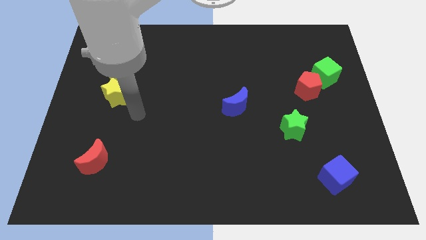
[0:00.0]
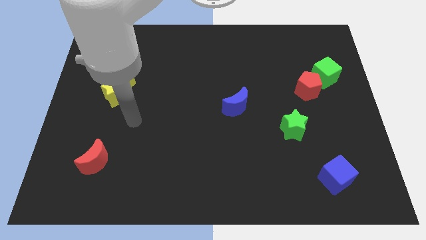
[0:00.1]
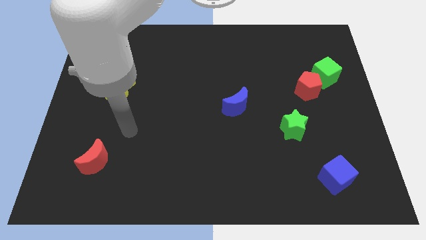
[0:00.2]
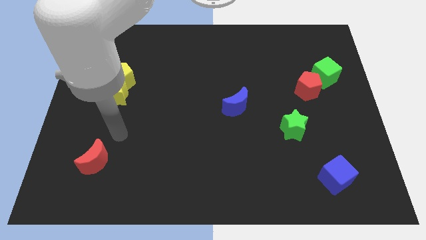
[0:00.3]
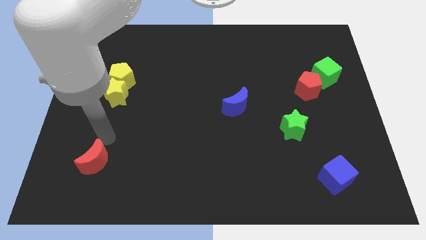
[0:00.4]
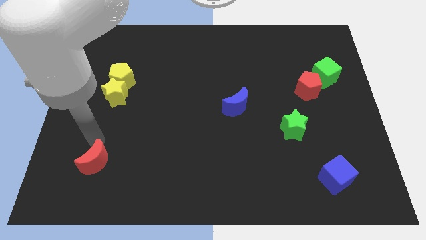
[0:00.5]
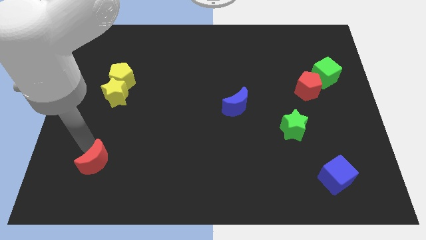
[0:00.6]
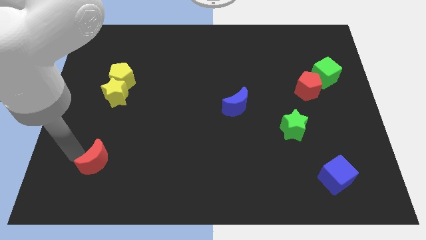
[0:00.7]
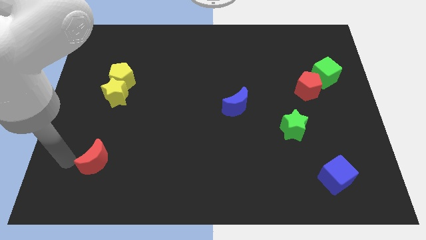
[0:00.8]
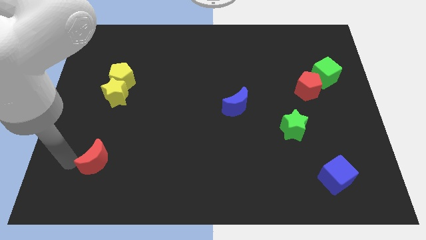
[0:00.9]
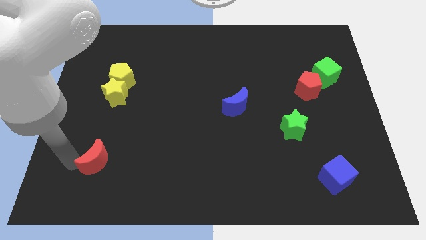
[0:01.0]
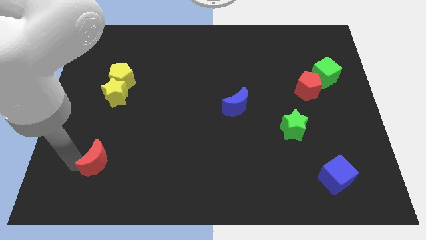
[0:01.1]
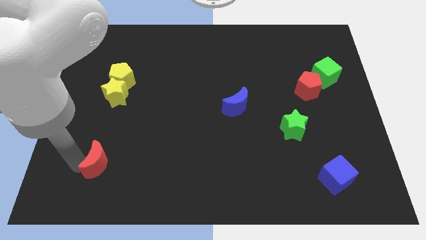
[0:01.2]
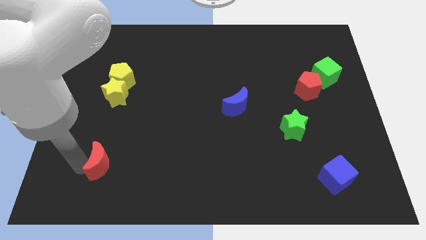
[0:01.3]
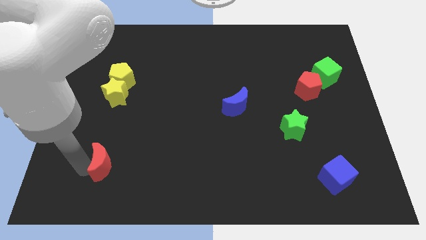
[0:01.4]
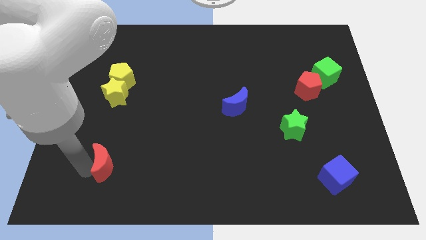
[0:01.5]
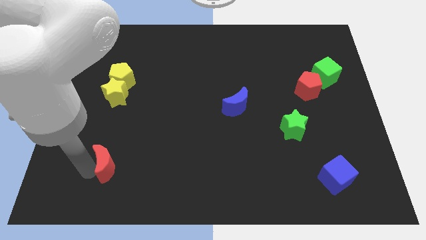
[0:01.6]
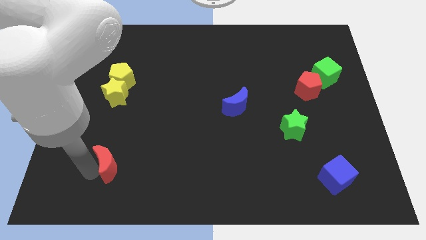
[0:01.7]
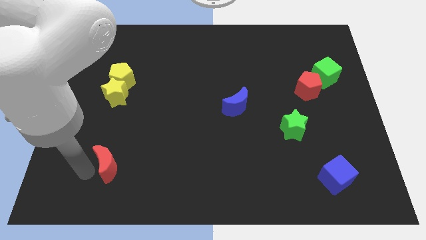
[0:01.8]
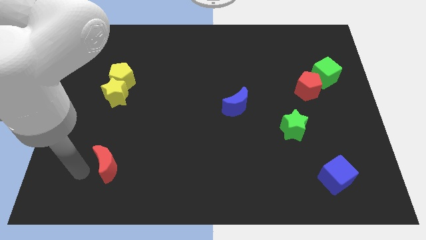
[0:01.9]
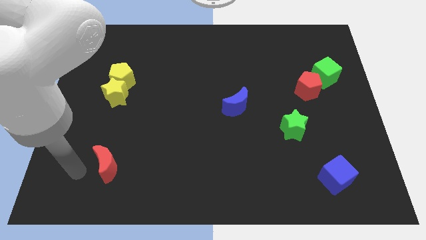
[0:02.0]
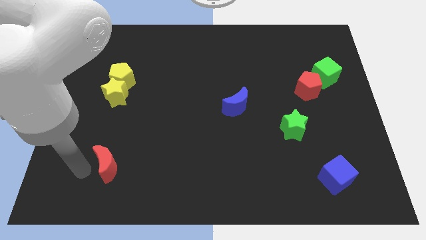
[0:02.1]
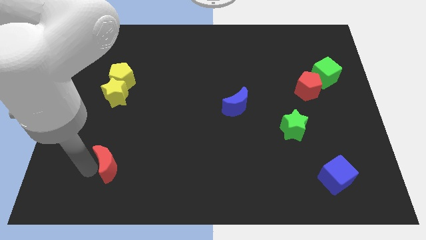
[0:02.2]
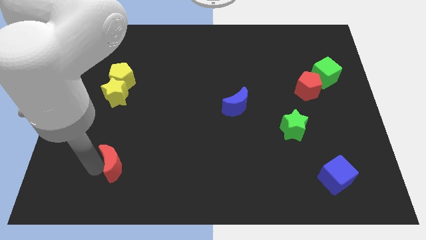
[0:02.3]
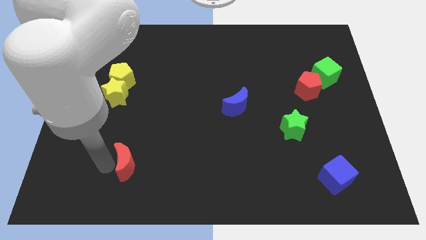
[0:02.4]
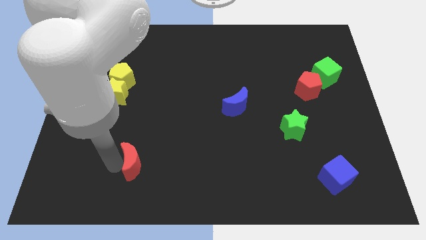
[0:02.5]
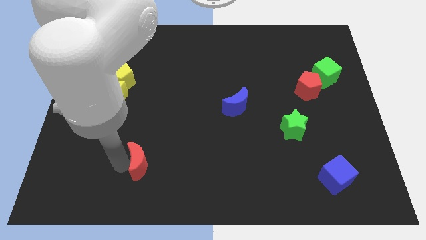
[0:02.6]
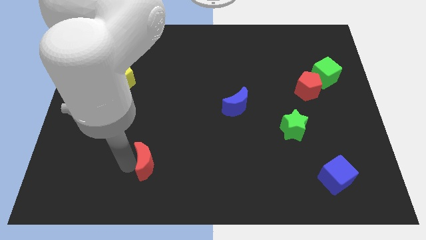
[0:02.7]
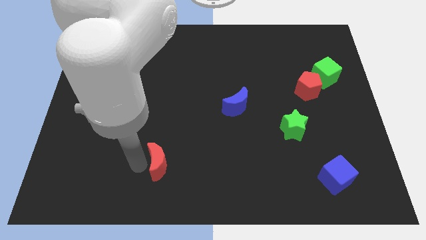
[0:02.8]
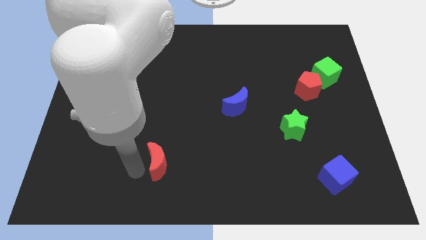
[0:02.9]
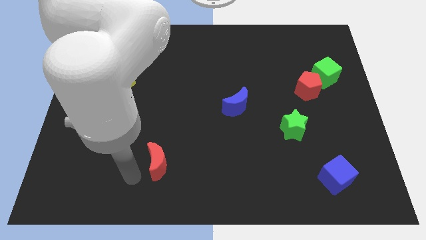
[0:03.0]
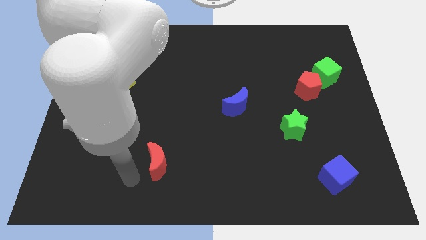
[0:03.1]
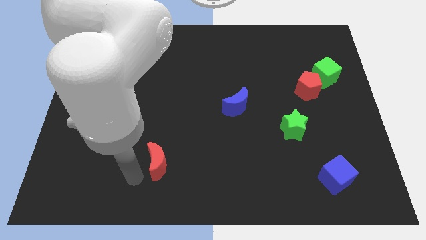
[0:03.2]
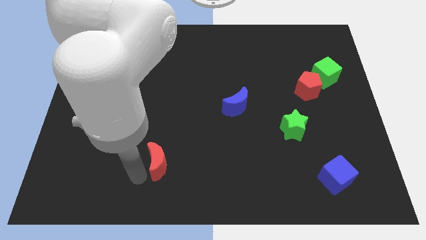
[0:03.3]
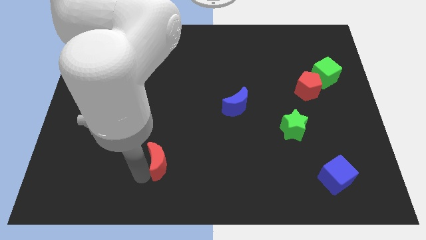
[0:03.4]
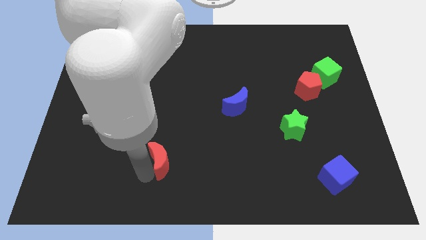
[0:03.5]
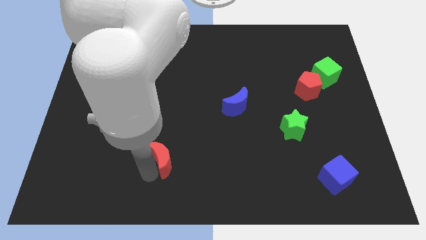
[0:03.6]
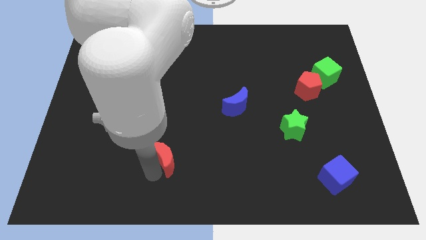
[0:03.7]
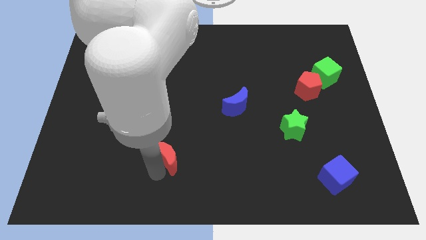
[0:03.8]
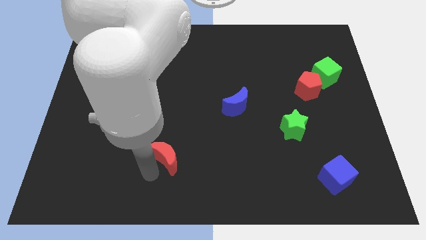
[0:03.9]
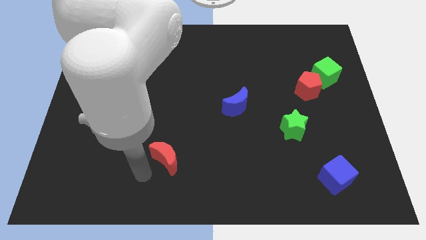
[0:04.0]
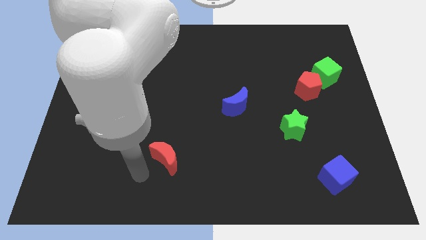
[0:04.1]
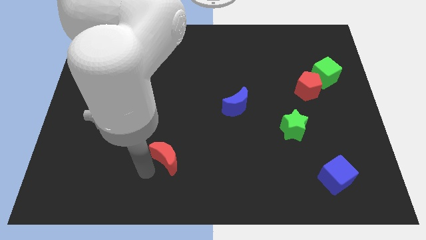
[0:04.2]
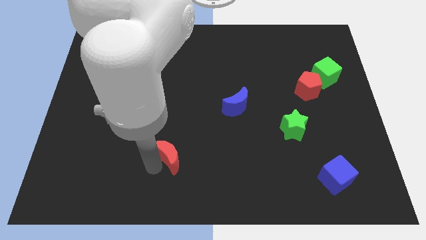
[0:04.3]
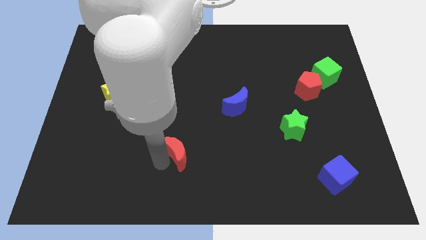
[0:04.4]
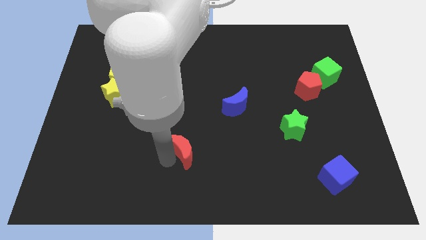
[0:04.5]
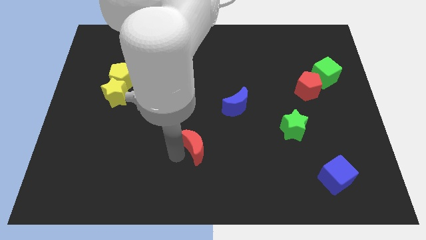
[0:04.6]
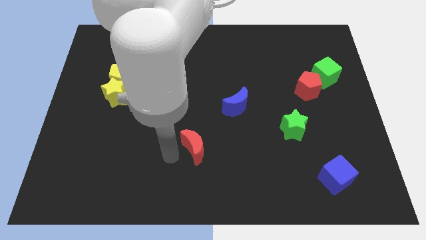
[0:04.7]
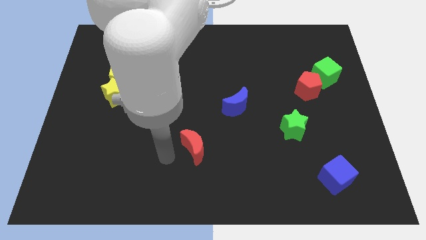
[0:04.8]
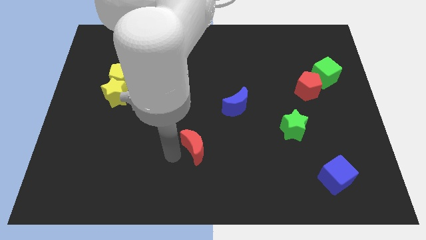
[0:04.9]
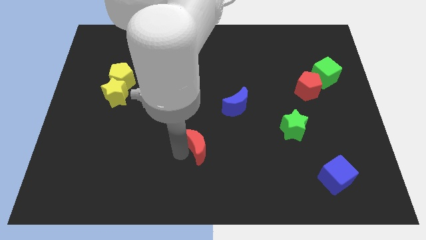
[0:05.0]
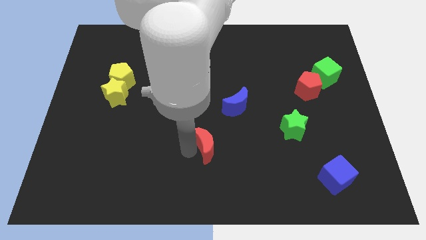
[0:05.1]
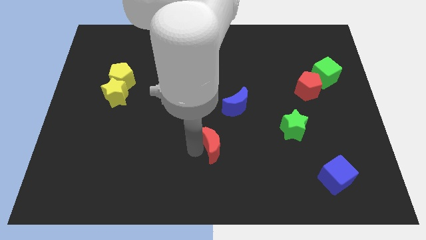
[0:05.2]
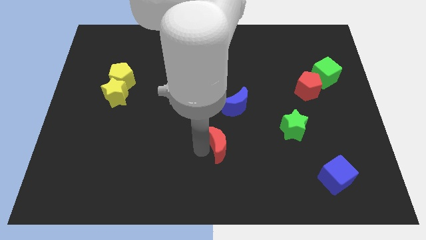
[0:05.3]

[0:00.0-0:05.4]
slide the red moon below the blue moon
